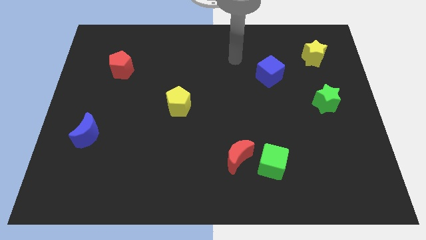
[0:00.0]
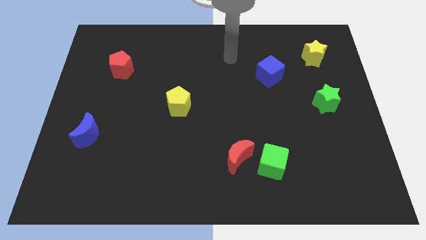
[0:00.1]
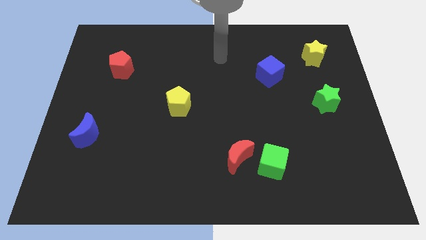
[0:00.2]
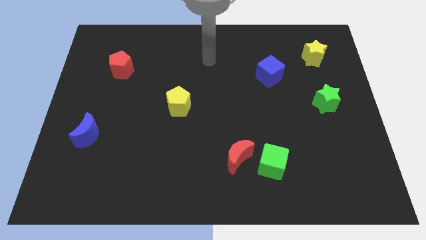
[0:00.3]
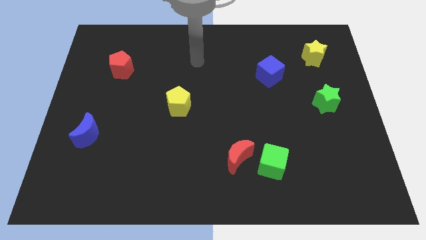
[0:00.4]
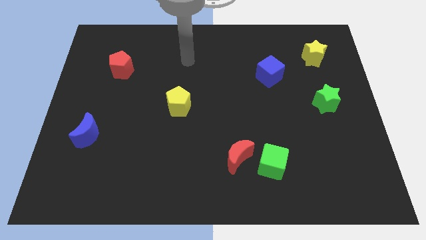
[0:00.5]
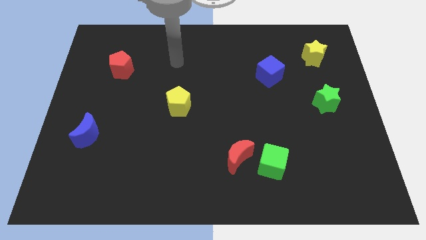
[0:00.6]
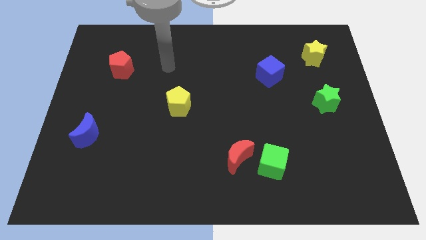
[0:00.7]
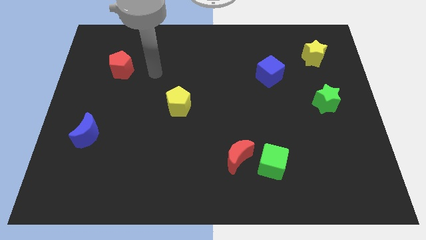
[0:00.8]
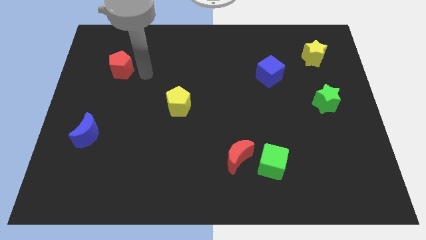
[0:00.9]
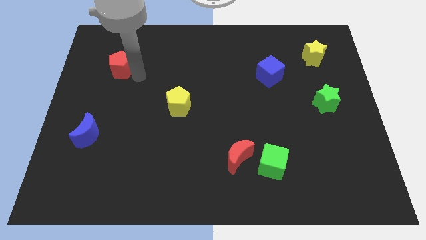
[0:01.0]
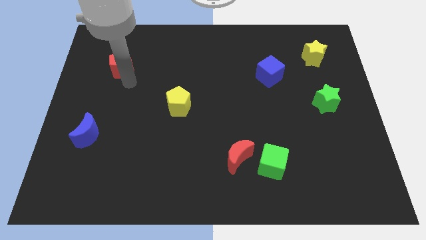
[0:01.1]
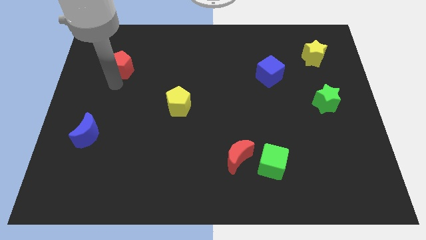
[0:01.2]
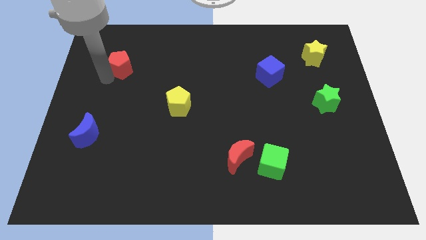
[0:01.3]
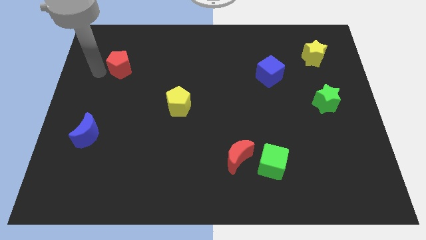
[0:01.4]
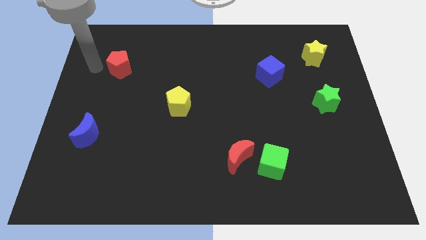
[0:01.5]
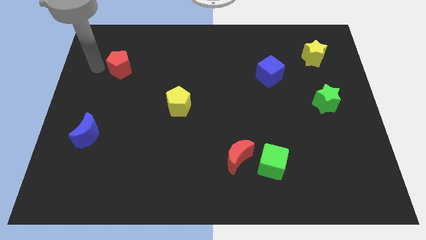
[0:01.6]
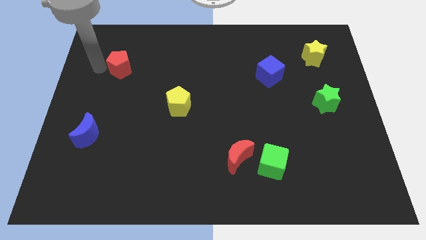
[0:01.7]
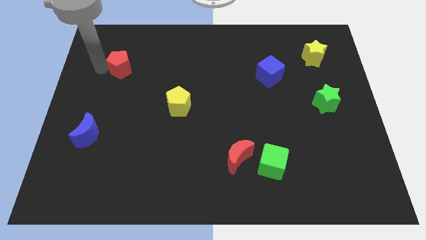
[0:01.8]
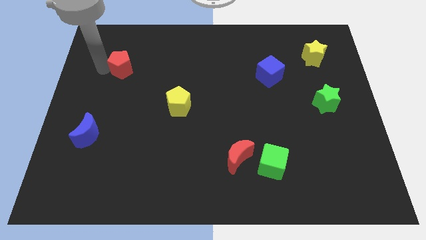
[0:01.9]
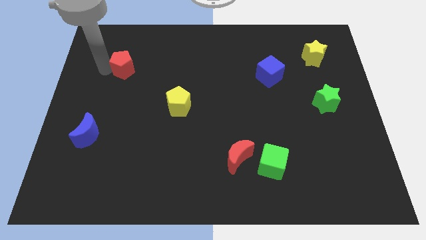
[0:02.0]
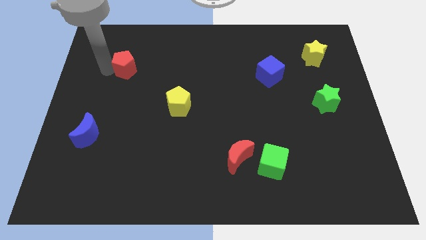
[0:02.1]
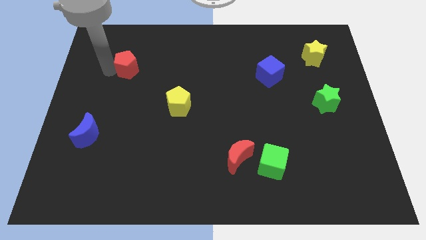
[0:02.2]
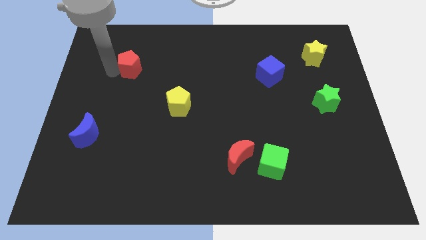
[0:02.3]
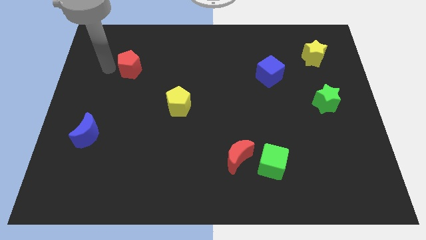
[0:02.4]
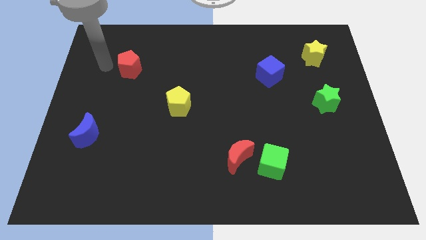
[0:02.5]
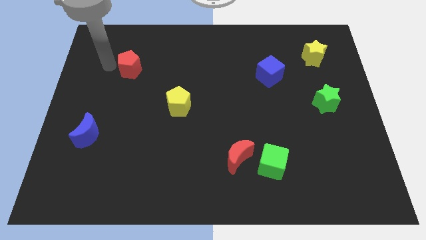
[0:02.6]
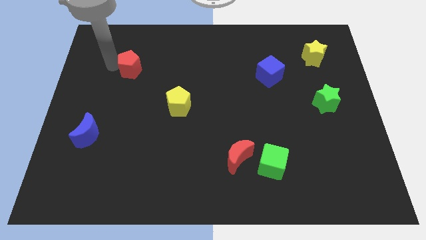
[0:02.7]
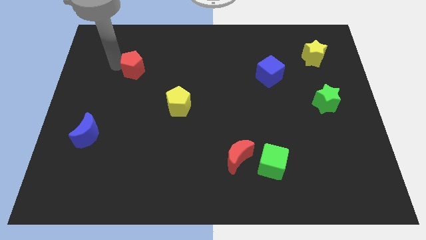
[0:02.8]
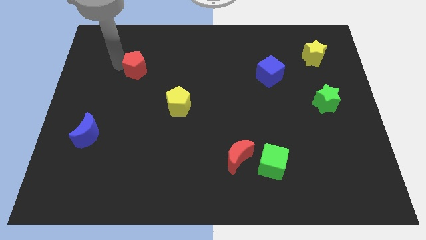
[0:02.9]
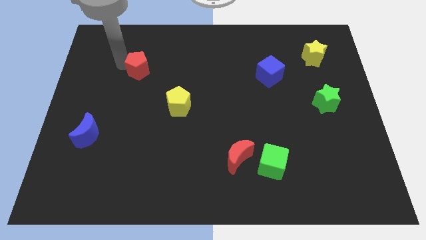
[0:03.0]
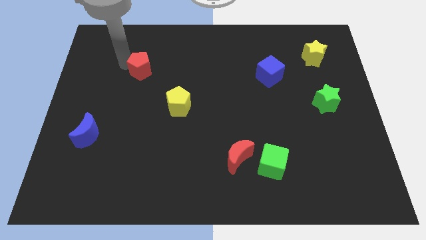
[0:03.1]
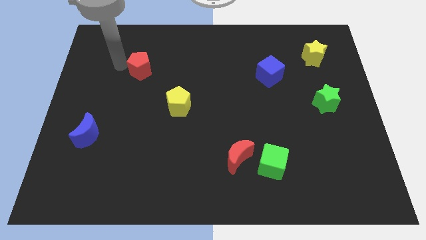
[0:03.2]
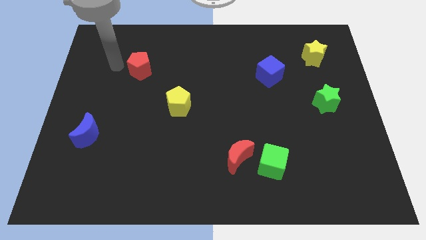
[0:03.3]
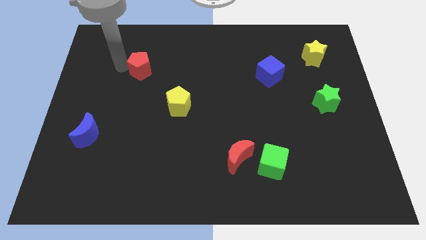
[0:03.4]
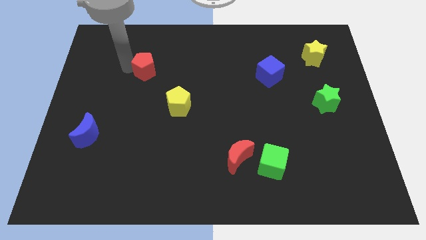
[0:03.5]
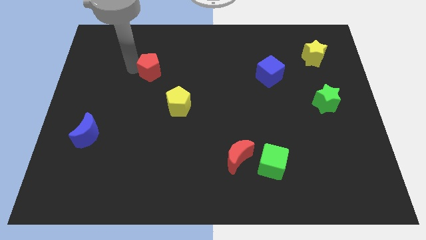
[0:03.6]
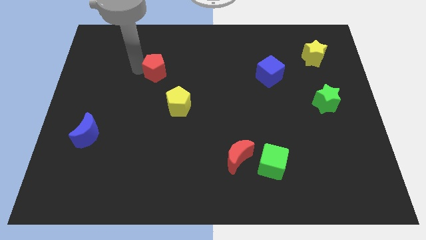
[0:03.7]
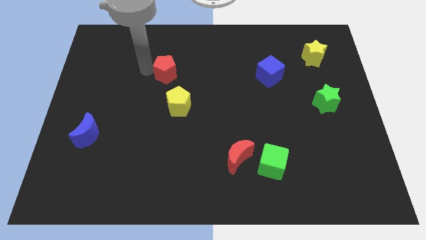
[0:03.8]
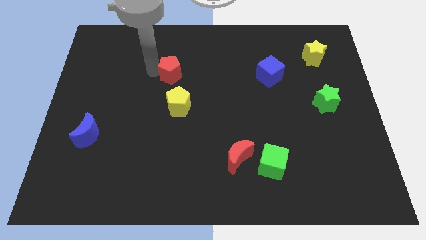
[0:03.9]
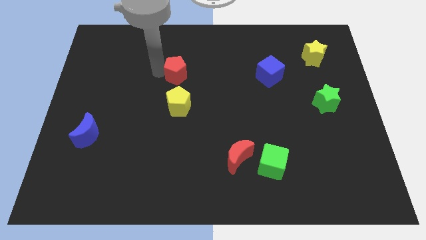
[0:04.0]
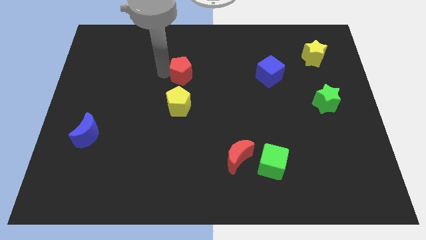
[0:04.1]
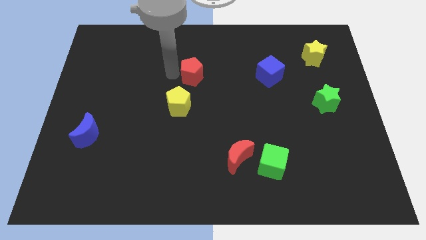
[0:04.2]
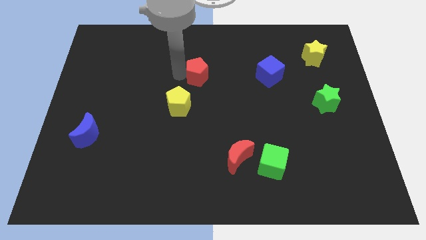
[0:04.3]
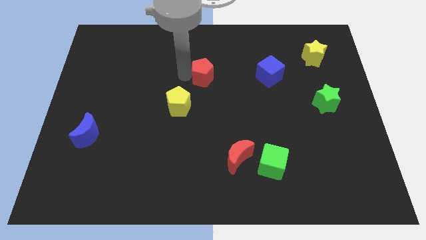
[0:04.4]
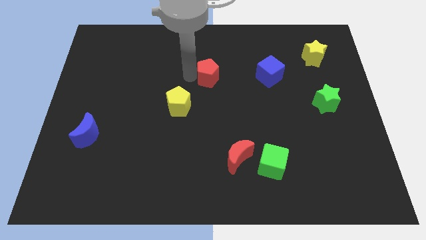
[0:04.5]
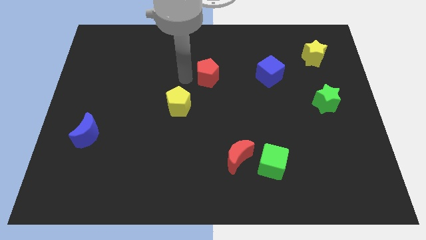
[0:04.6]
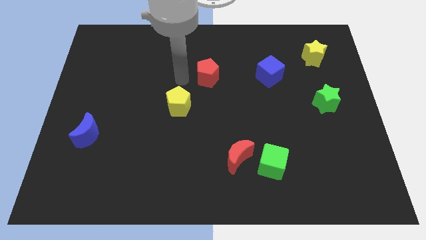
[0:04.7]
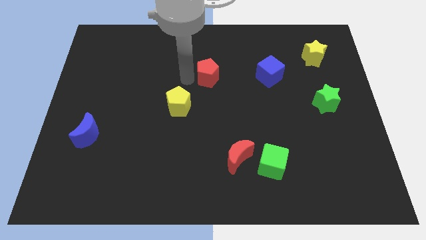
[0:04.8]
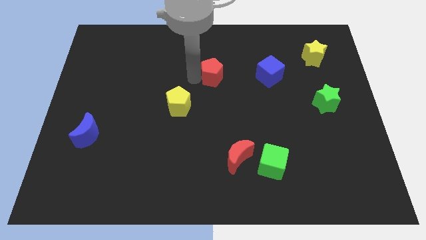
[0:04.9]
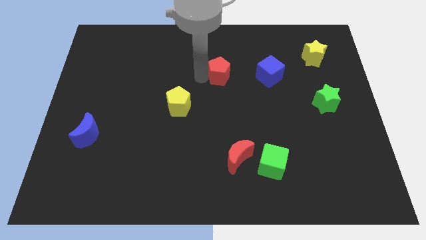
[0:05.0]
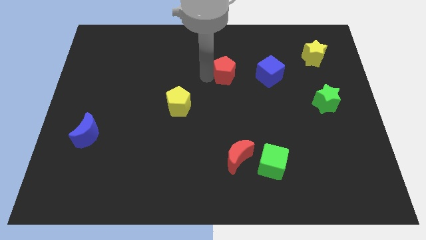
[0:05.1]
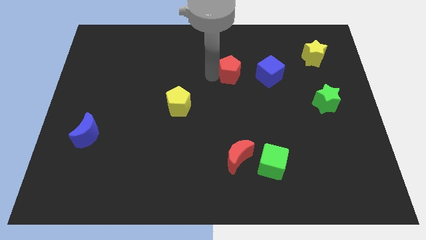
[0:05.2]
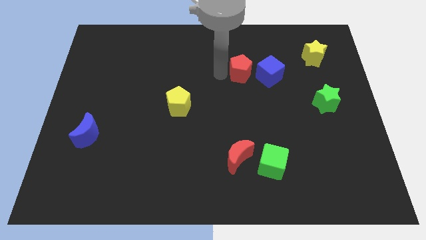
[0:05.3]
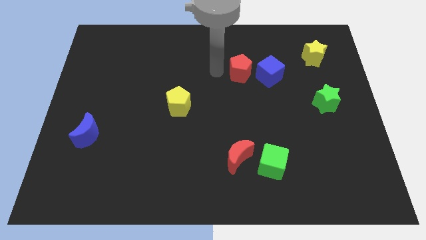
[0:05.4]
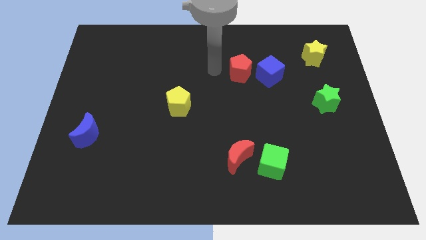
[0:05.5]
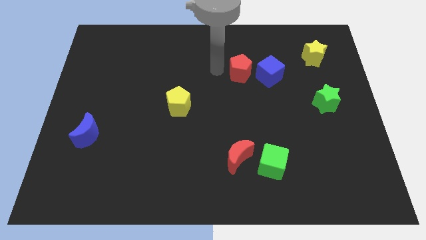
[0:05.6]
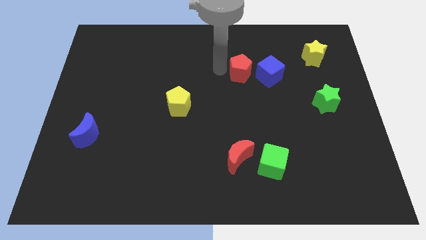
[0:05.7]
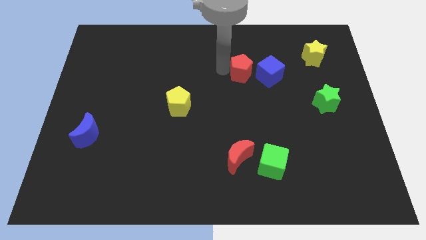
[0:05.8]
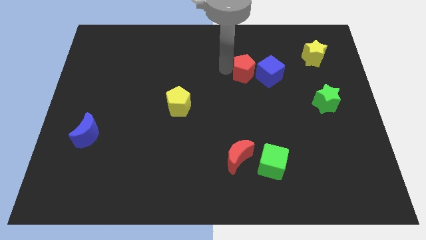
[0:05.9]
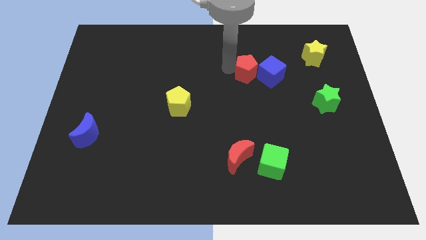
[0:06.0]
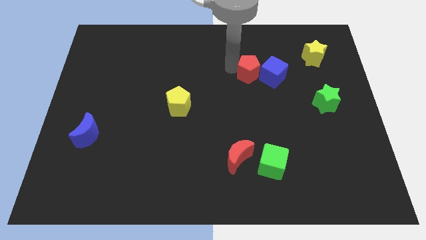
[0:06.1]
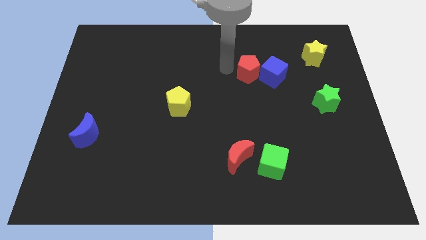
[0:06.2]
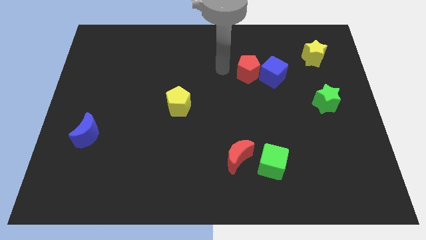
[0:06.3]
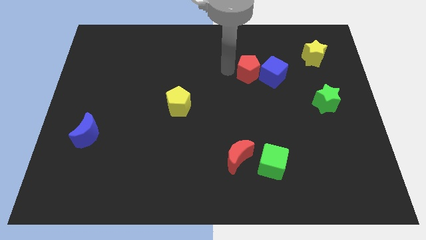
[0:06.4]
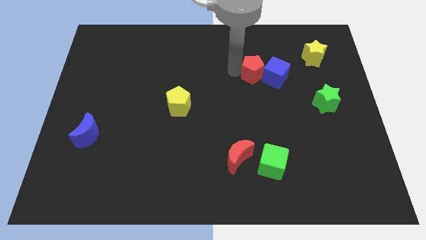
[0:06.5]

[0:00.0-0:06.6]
slide the red pentagon to the blue cube

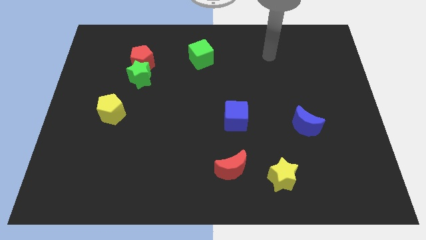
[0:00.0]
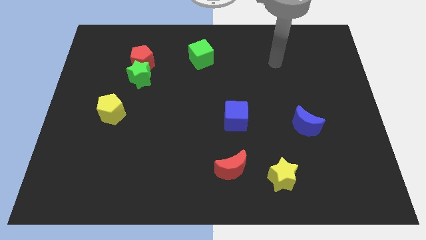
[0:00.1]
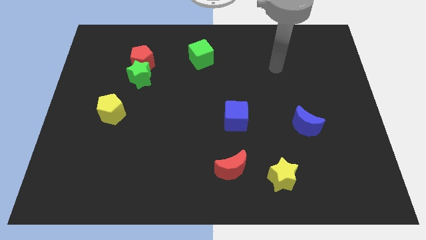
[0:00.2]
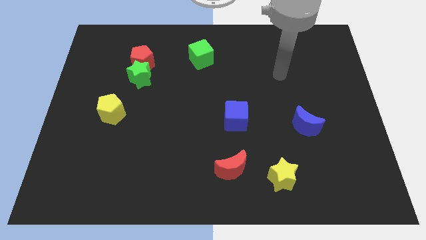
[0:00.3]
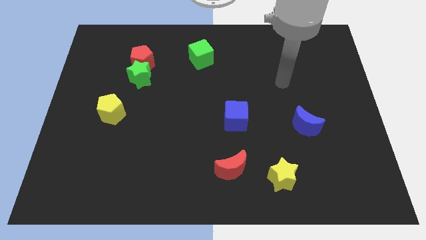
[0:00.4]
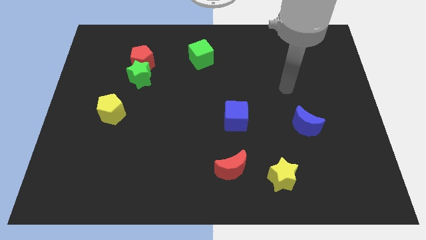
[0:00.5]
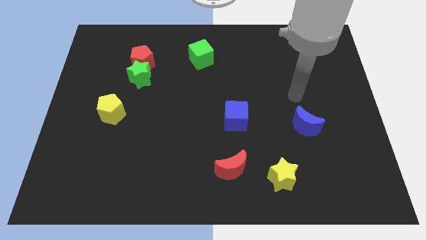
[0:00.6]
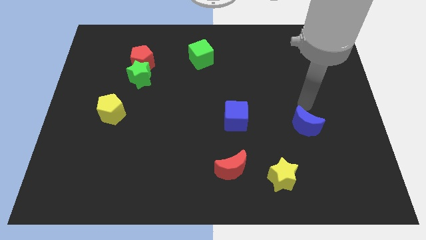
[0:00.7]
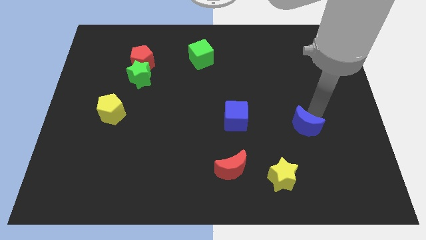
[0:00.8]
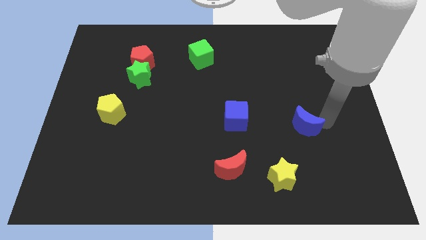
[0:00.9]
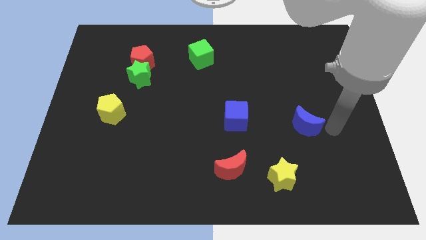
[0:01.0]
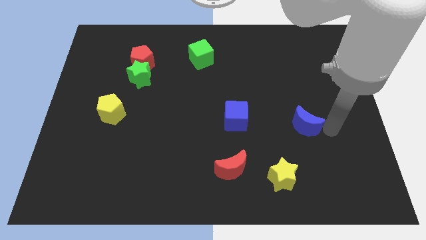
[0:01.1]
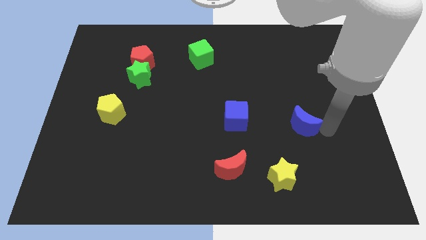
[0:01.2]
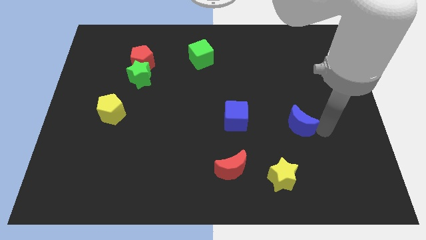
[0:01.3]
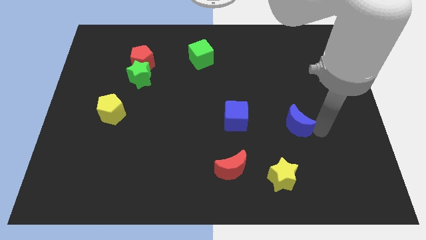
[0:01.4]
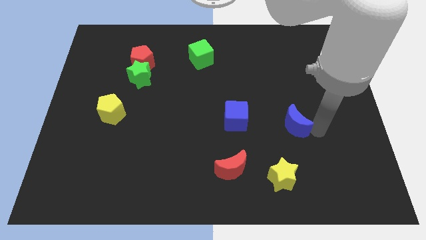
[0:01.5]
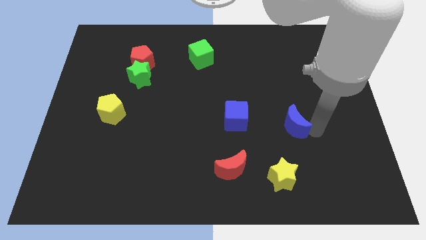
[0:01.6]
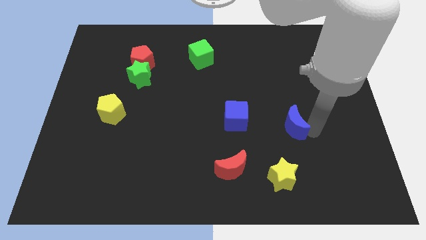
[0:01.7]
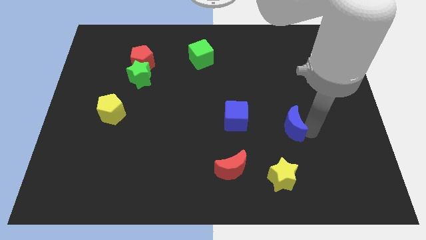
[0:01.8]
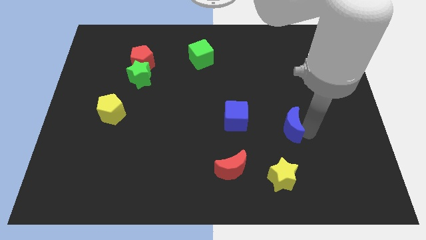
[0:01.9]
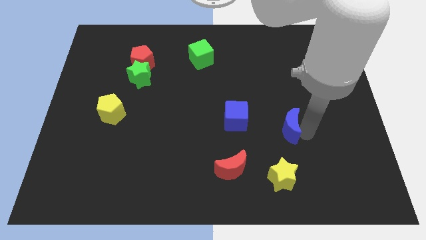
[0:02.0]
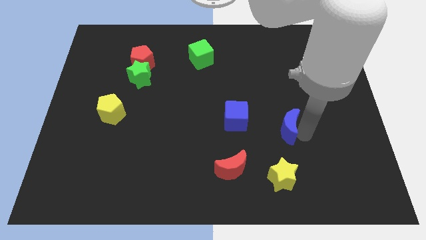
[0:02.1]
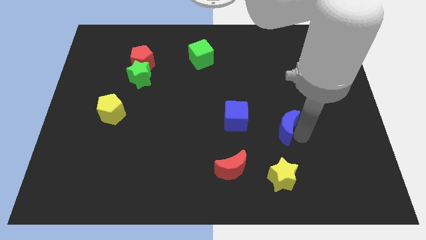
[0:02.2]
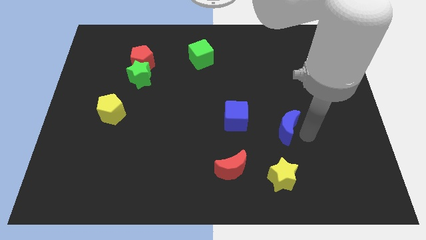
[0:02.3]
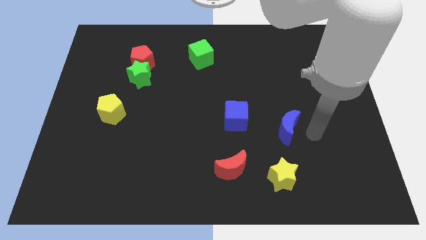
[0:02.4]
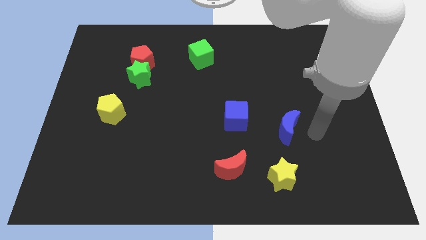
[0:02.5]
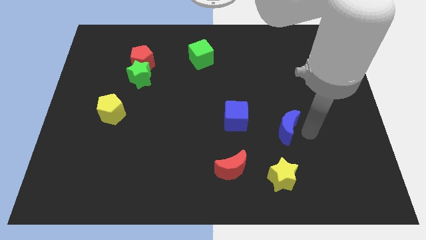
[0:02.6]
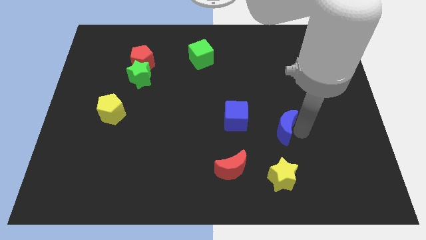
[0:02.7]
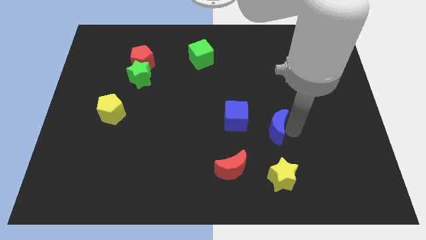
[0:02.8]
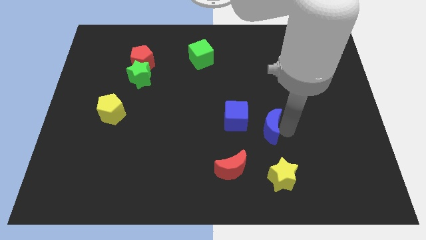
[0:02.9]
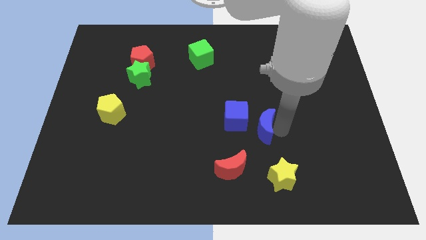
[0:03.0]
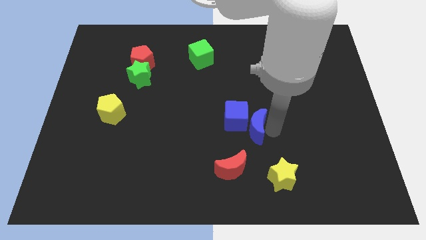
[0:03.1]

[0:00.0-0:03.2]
move the blue moon next to the blue cube
